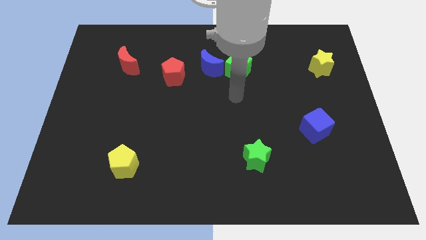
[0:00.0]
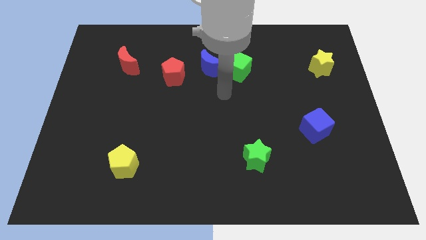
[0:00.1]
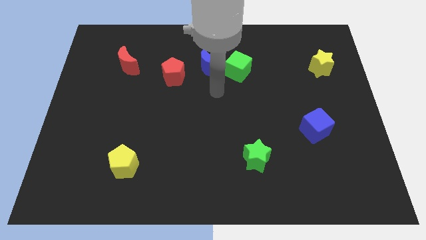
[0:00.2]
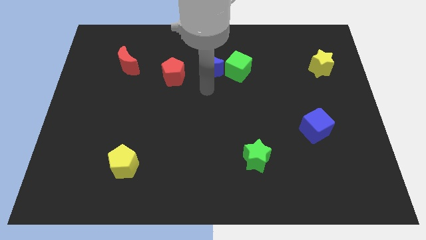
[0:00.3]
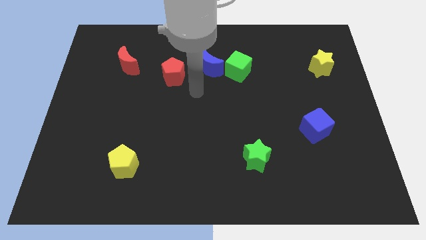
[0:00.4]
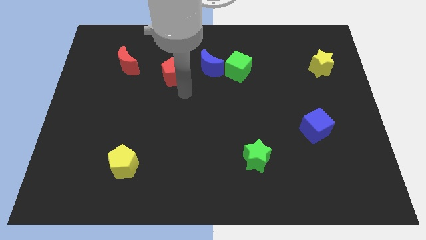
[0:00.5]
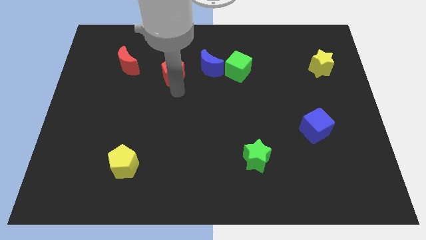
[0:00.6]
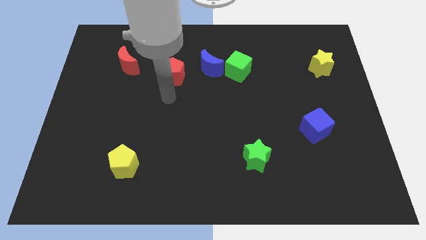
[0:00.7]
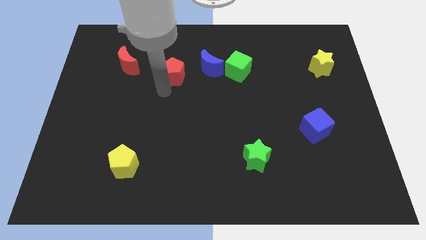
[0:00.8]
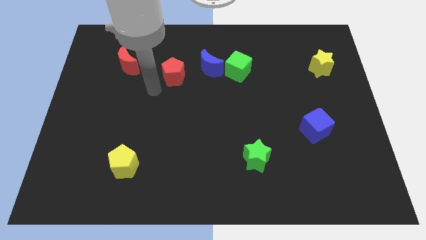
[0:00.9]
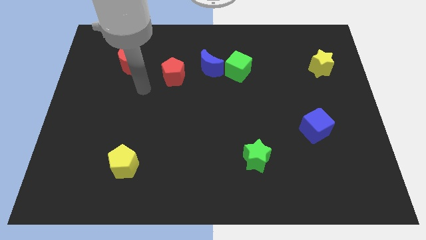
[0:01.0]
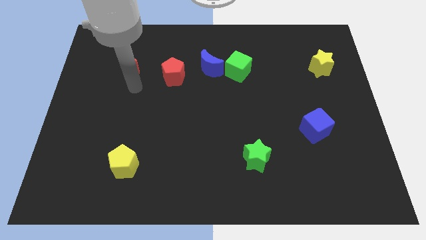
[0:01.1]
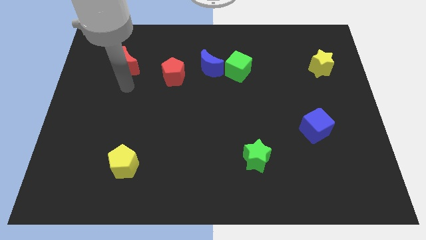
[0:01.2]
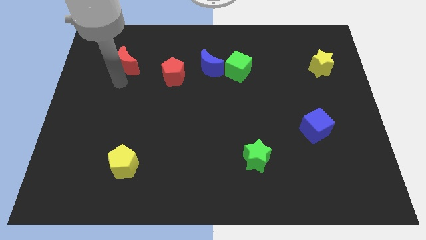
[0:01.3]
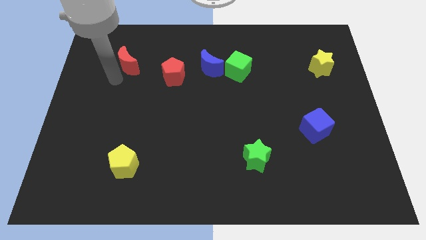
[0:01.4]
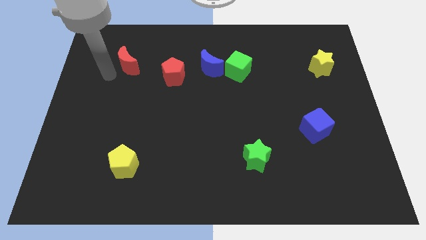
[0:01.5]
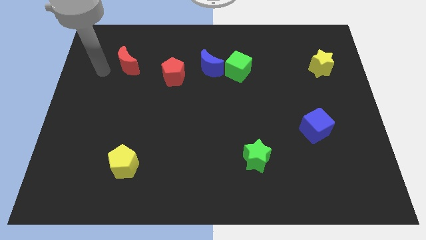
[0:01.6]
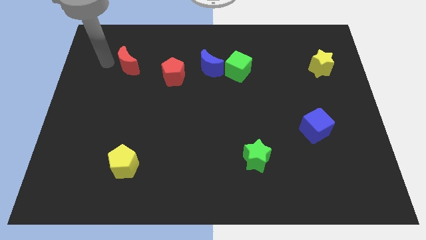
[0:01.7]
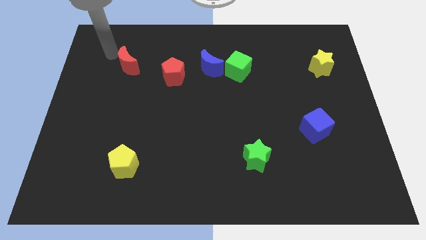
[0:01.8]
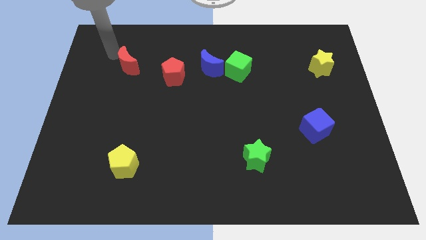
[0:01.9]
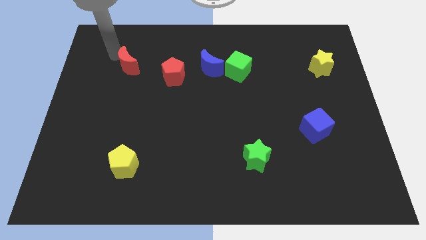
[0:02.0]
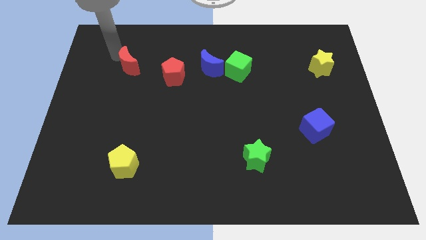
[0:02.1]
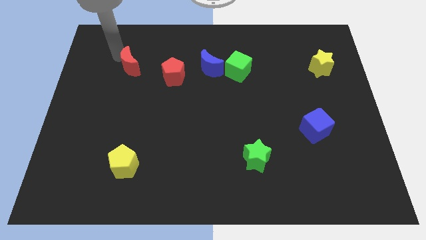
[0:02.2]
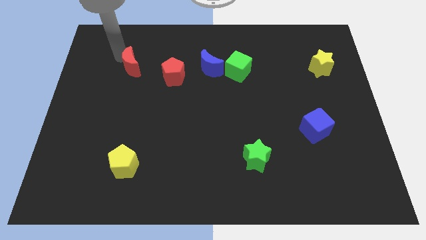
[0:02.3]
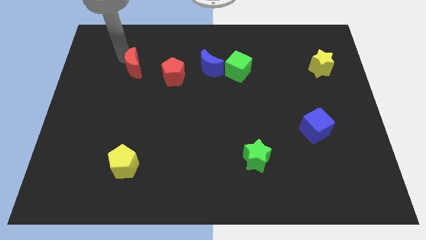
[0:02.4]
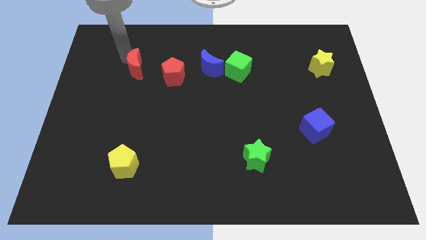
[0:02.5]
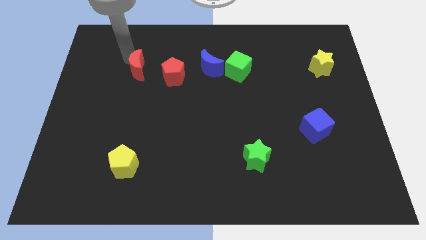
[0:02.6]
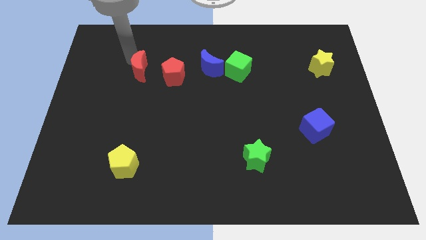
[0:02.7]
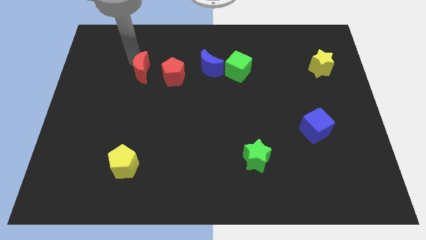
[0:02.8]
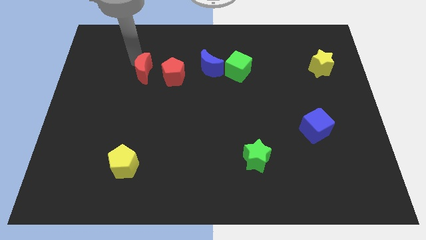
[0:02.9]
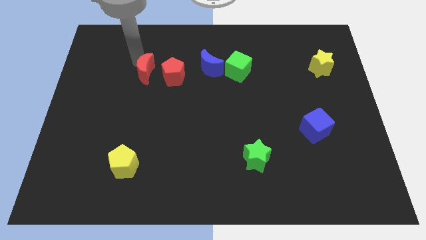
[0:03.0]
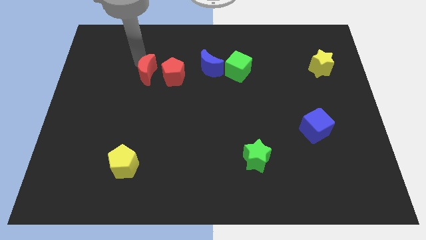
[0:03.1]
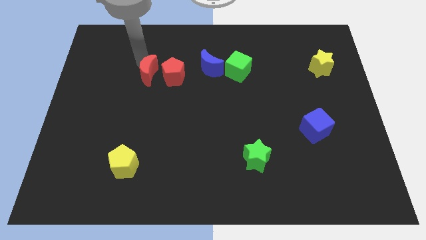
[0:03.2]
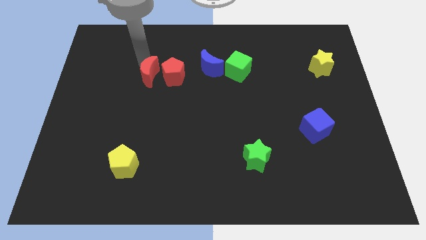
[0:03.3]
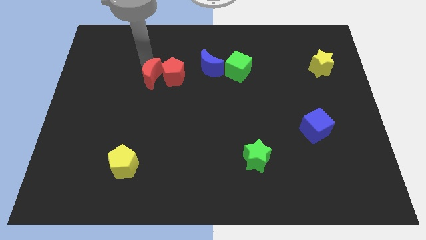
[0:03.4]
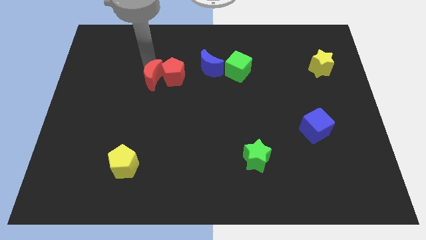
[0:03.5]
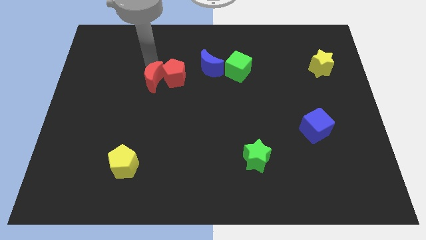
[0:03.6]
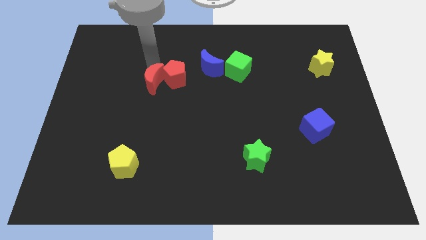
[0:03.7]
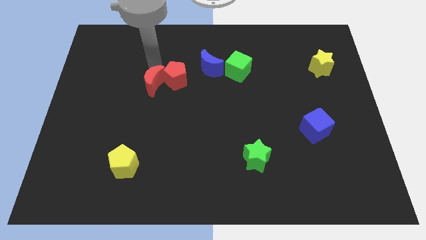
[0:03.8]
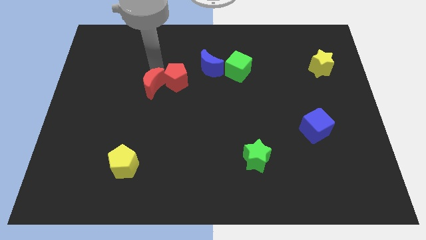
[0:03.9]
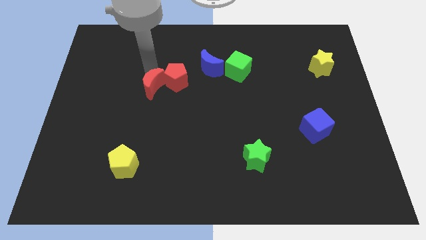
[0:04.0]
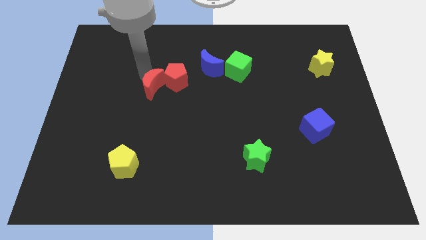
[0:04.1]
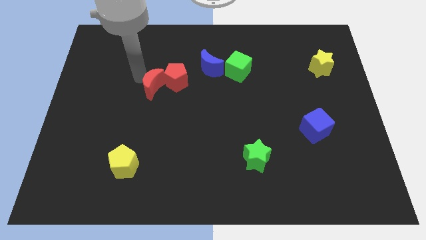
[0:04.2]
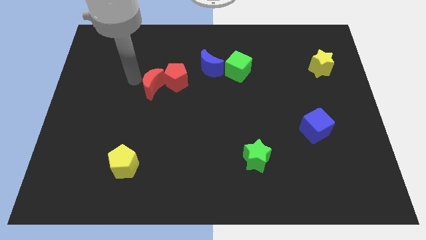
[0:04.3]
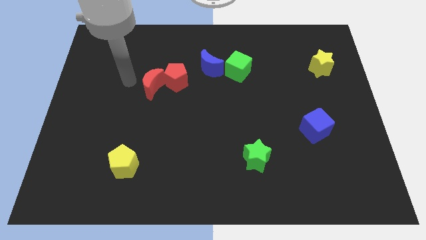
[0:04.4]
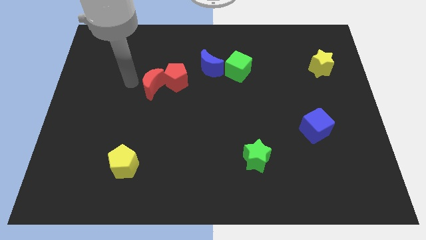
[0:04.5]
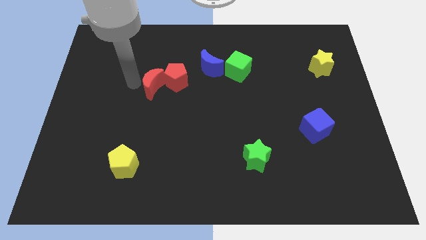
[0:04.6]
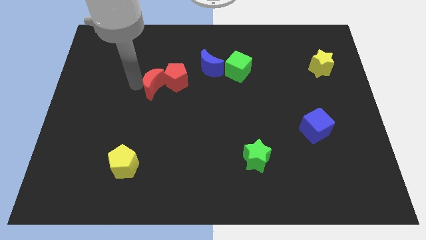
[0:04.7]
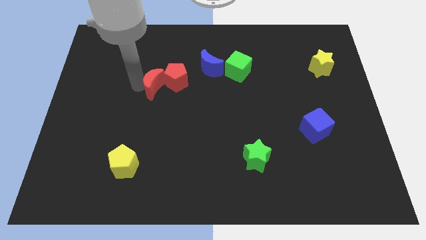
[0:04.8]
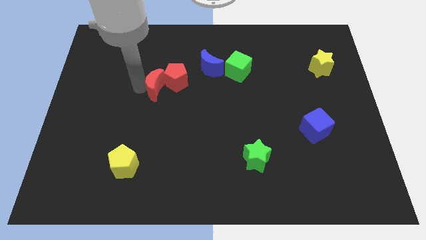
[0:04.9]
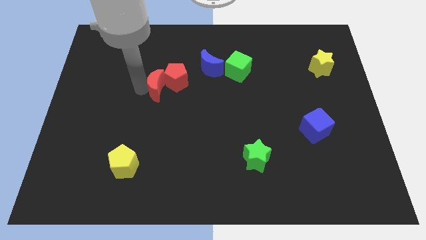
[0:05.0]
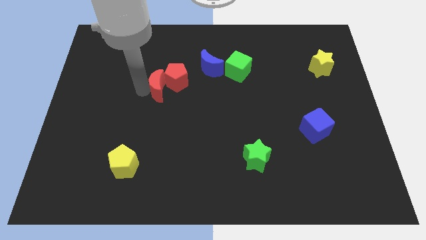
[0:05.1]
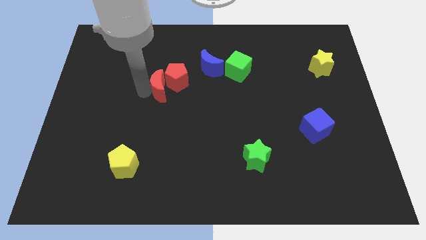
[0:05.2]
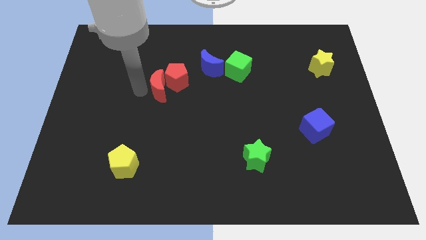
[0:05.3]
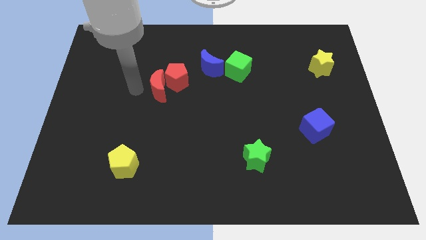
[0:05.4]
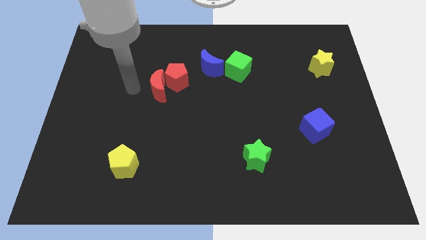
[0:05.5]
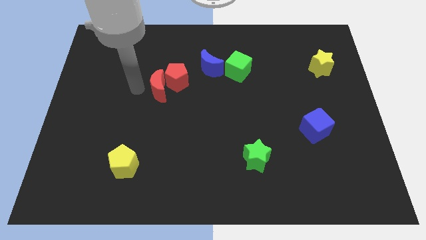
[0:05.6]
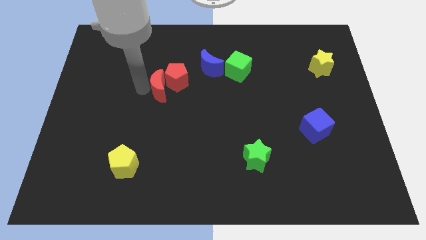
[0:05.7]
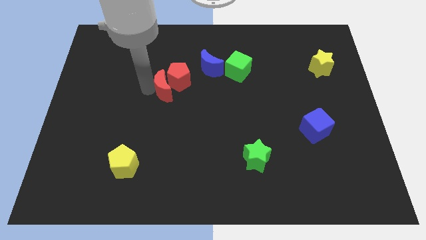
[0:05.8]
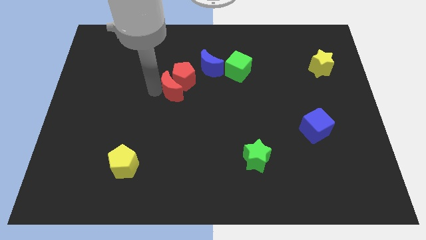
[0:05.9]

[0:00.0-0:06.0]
push the red moon diagonally down and to the left of the blue moon

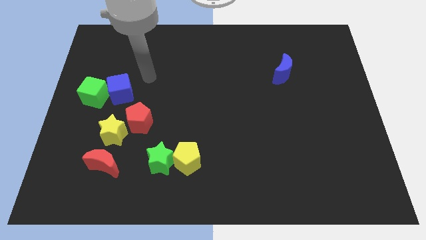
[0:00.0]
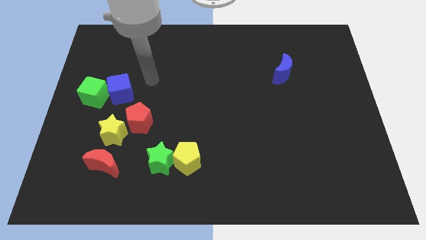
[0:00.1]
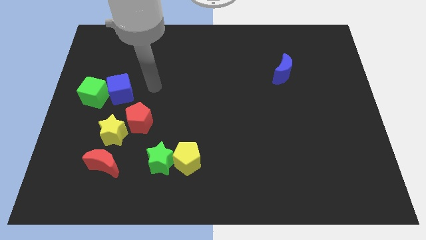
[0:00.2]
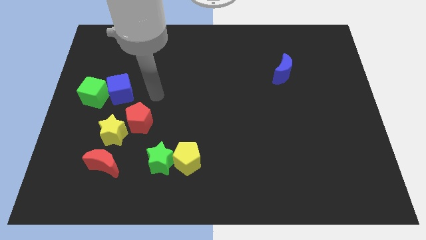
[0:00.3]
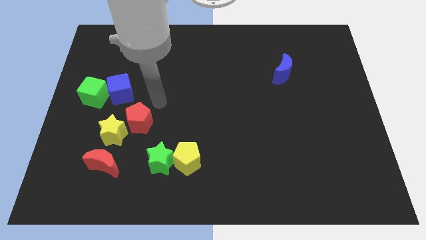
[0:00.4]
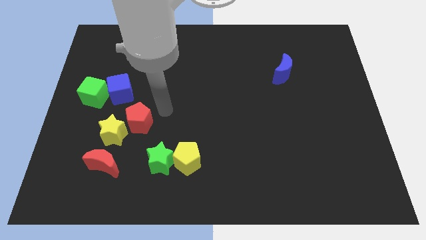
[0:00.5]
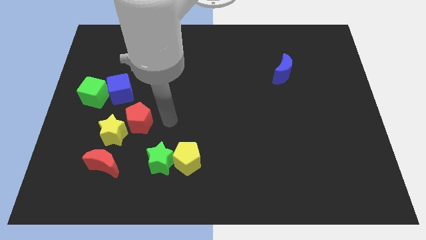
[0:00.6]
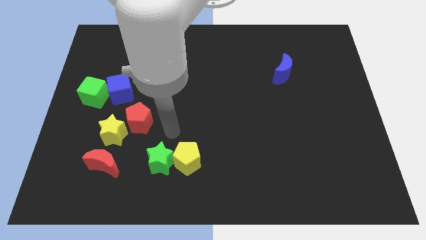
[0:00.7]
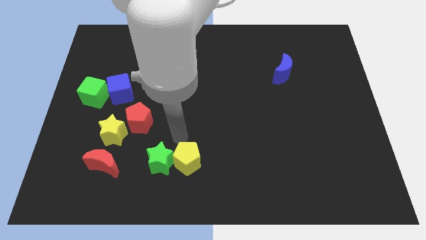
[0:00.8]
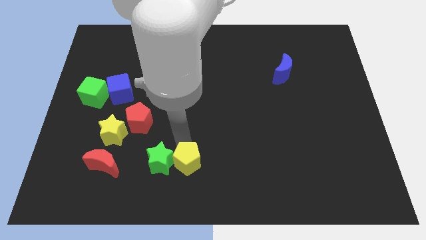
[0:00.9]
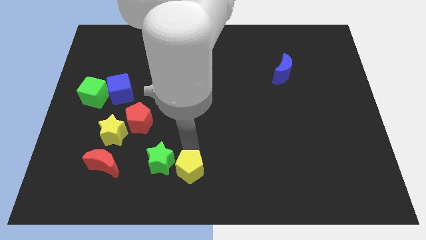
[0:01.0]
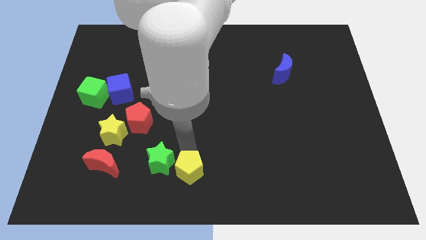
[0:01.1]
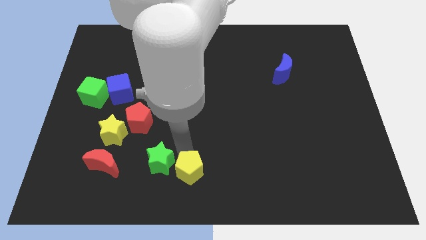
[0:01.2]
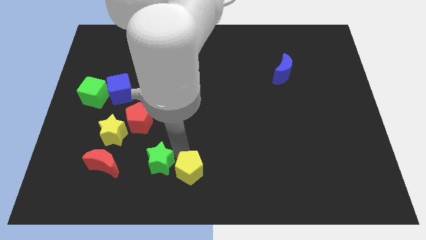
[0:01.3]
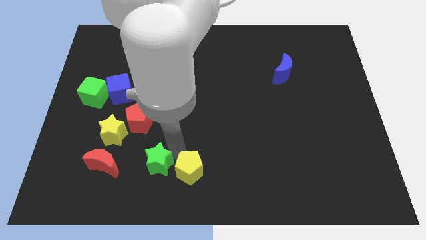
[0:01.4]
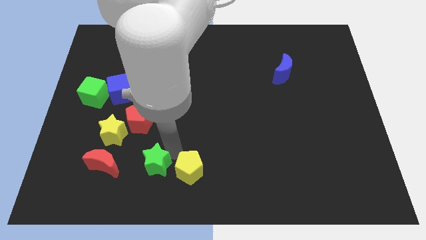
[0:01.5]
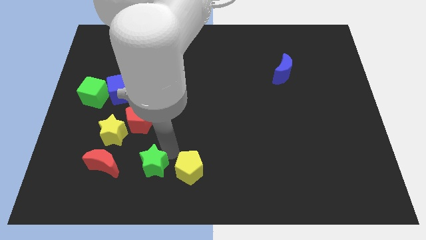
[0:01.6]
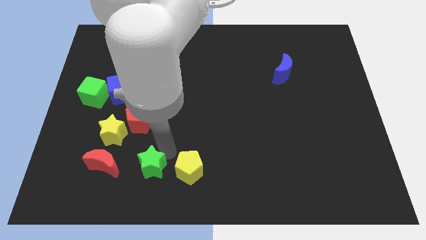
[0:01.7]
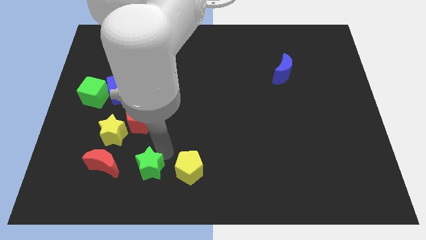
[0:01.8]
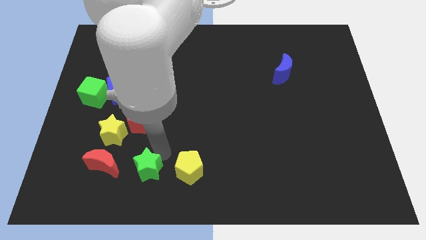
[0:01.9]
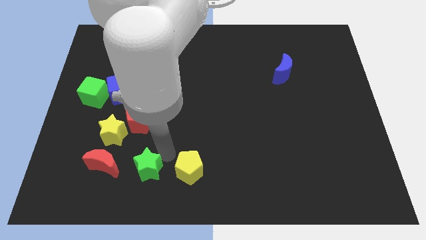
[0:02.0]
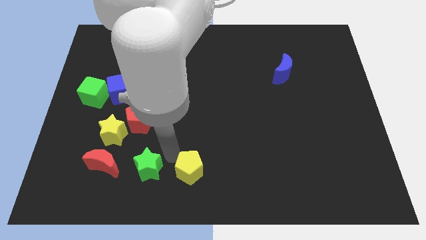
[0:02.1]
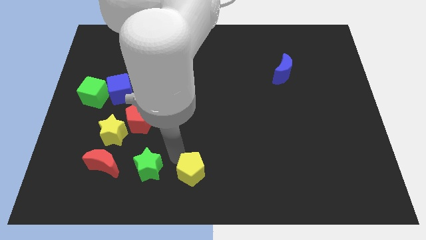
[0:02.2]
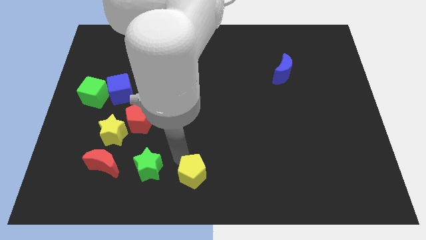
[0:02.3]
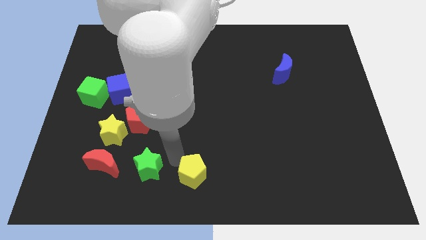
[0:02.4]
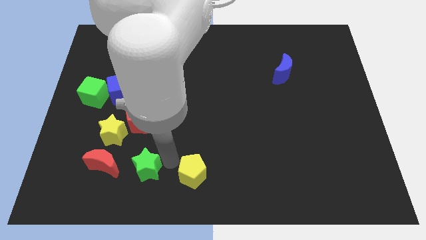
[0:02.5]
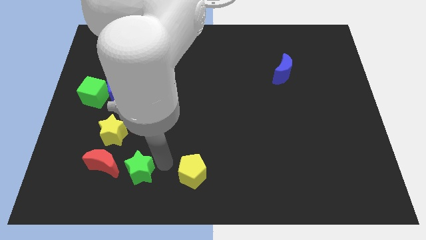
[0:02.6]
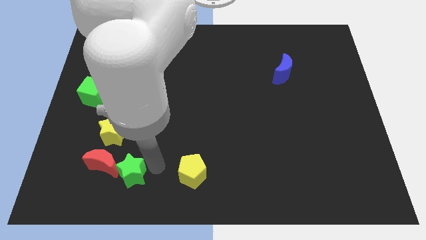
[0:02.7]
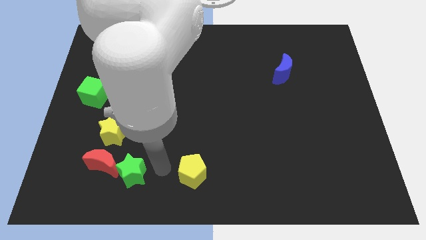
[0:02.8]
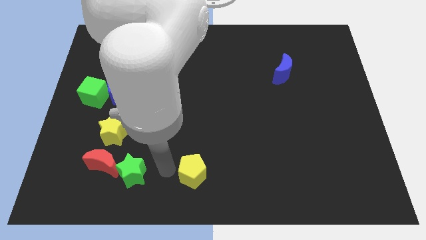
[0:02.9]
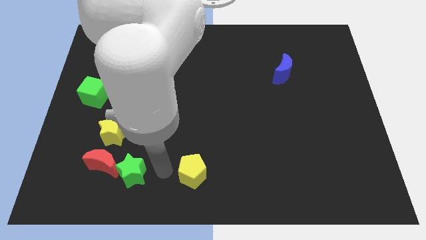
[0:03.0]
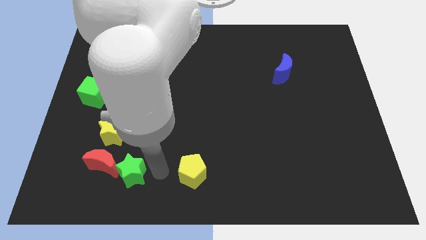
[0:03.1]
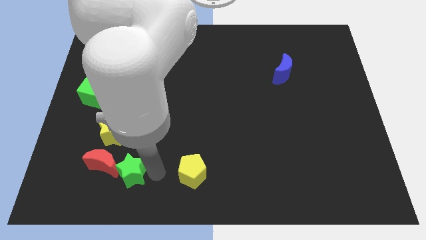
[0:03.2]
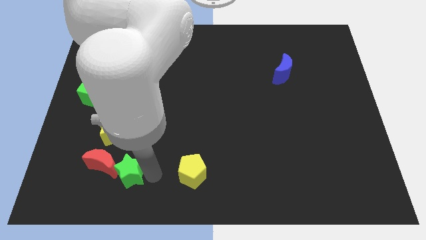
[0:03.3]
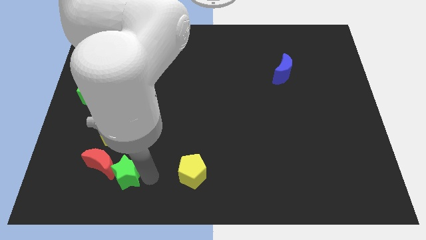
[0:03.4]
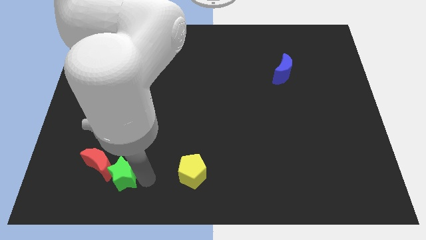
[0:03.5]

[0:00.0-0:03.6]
slide the green star to the bottom of the yellow star
